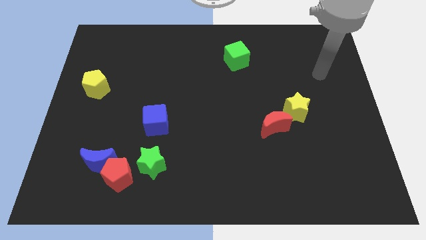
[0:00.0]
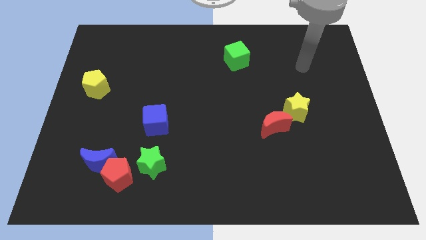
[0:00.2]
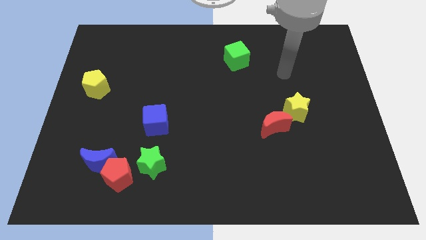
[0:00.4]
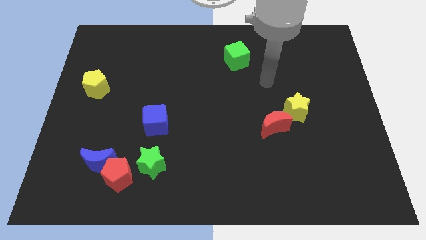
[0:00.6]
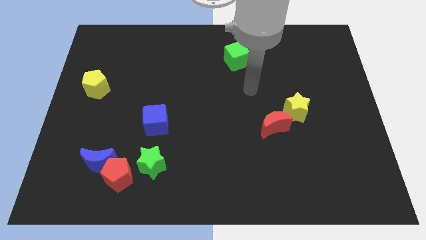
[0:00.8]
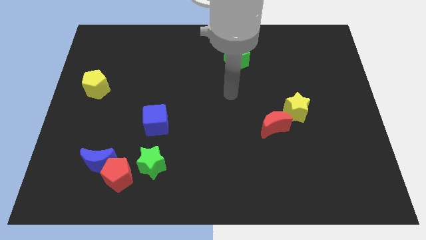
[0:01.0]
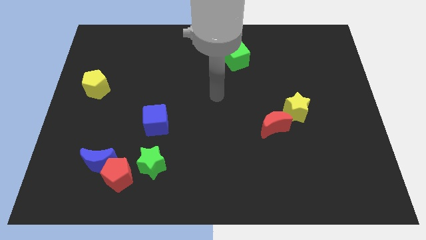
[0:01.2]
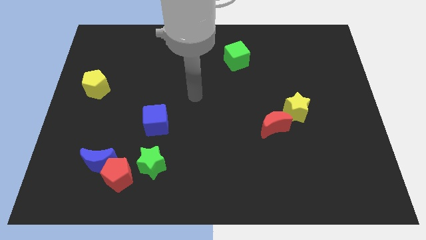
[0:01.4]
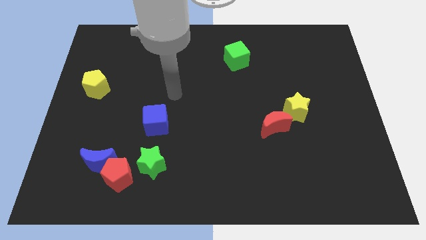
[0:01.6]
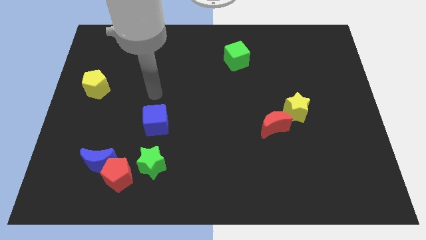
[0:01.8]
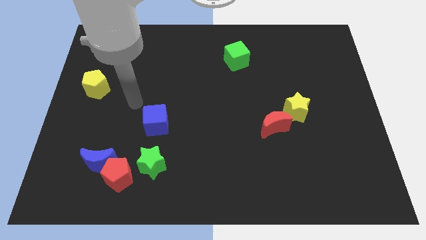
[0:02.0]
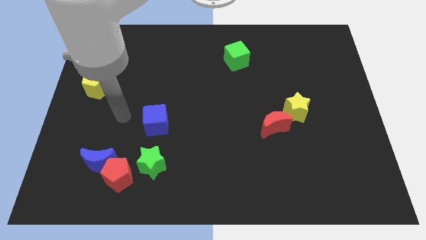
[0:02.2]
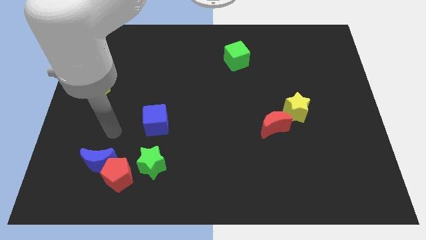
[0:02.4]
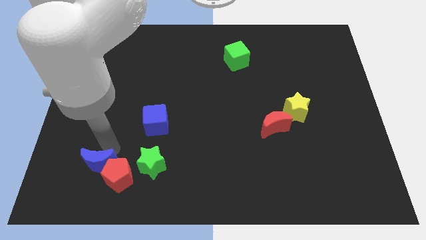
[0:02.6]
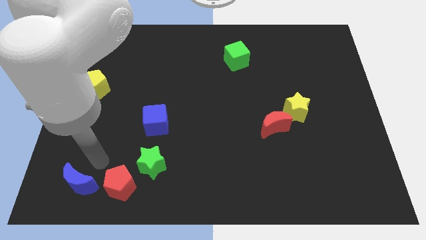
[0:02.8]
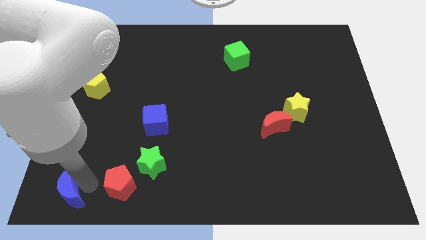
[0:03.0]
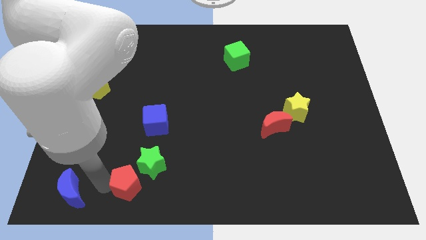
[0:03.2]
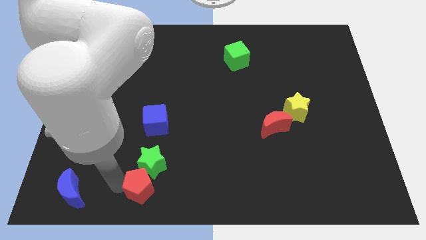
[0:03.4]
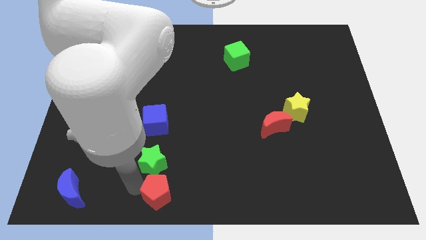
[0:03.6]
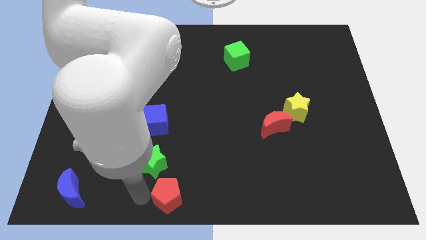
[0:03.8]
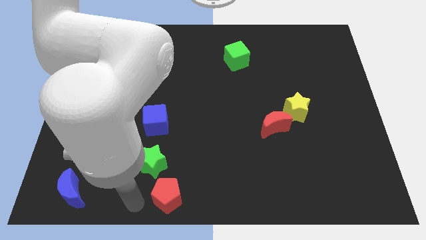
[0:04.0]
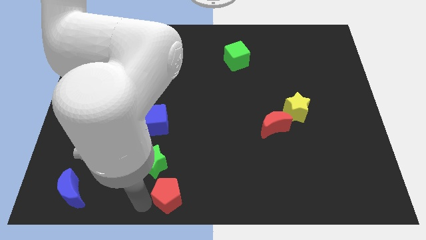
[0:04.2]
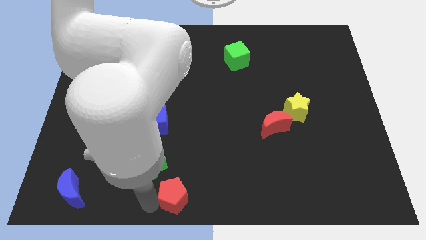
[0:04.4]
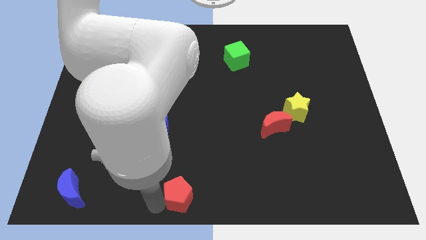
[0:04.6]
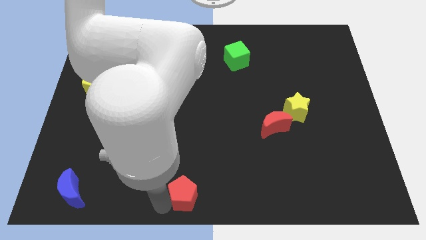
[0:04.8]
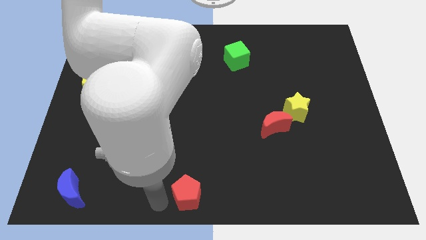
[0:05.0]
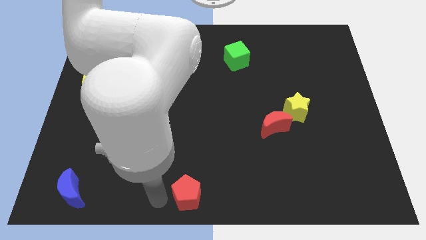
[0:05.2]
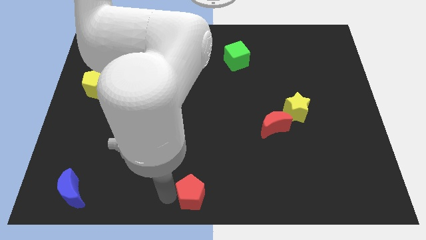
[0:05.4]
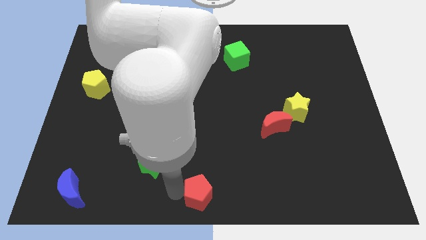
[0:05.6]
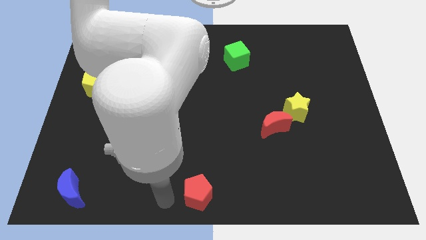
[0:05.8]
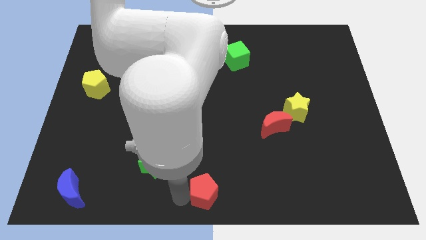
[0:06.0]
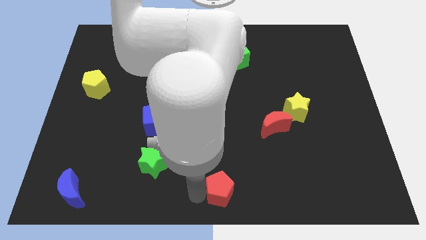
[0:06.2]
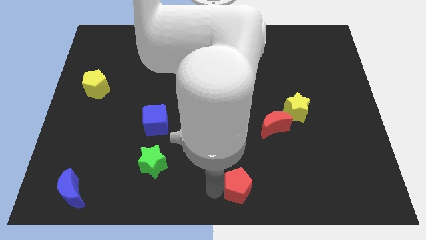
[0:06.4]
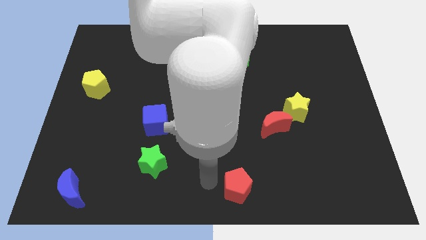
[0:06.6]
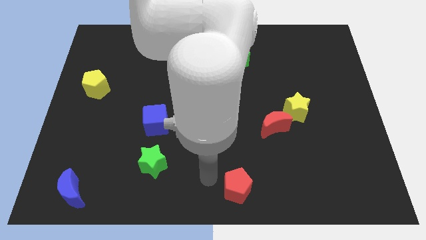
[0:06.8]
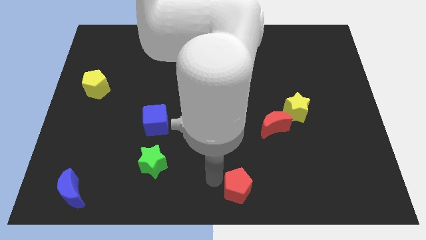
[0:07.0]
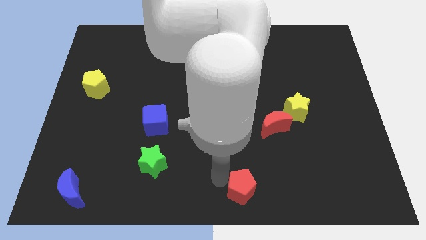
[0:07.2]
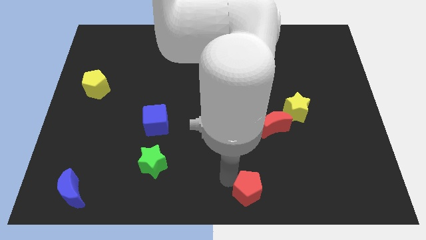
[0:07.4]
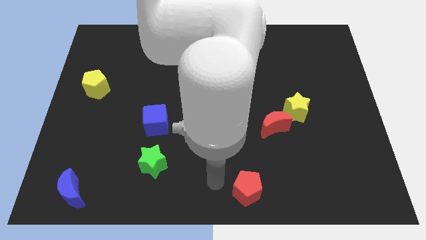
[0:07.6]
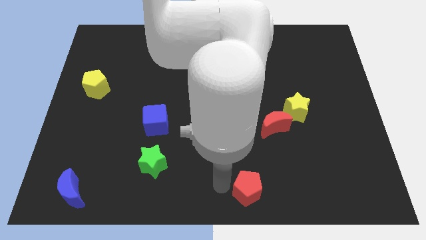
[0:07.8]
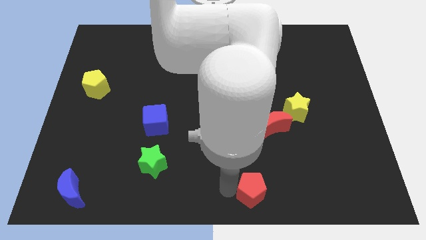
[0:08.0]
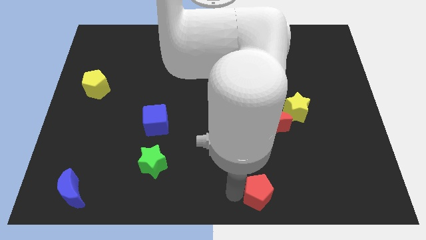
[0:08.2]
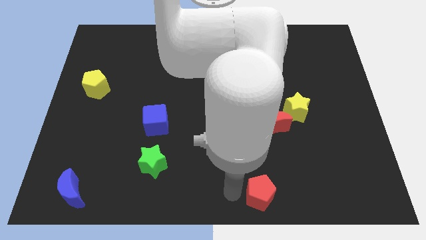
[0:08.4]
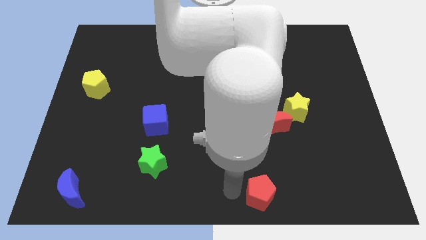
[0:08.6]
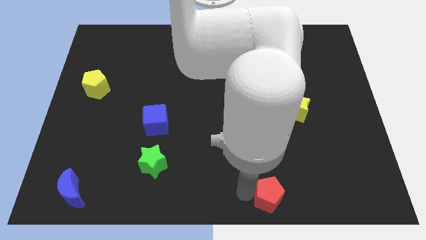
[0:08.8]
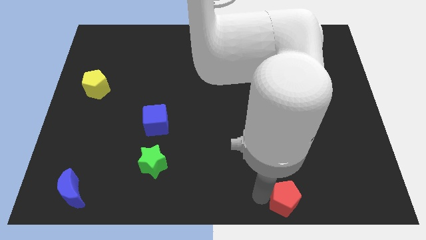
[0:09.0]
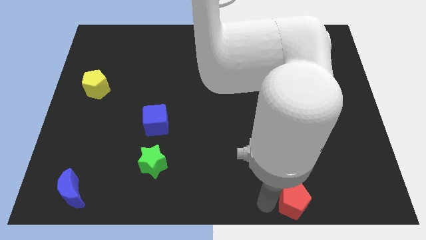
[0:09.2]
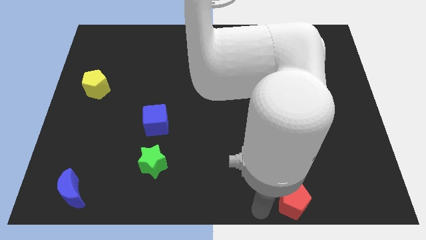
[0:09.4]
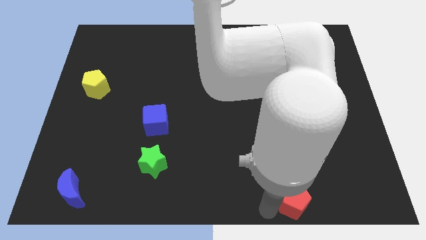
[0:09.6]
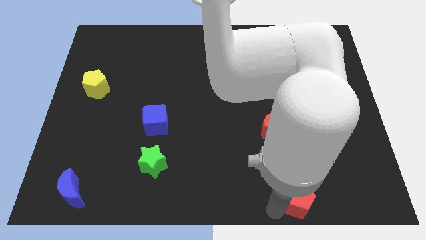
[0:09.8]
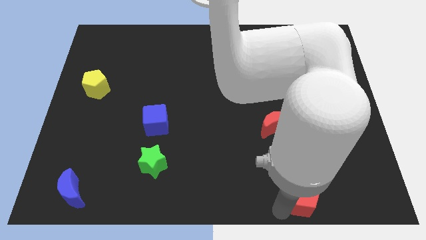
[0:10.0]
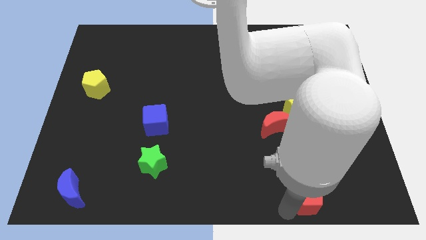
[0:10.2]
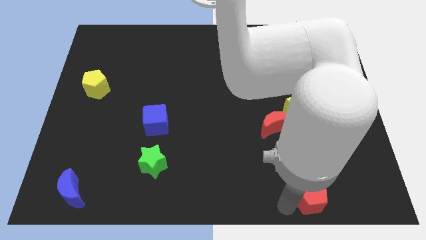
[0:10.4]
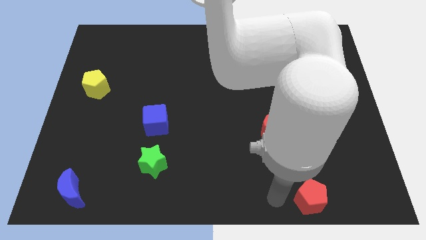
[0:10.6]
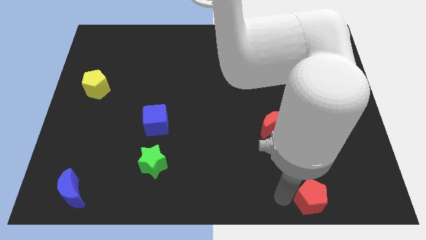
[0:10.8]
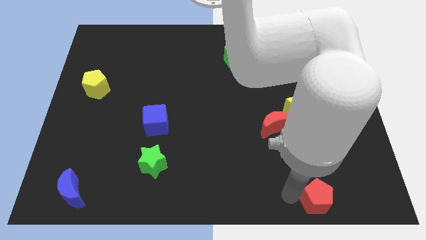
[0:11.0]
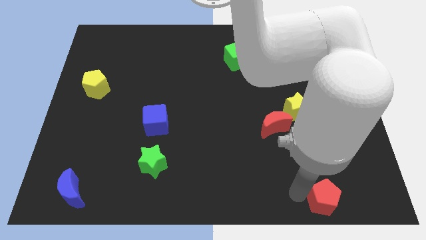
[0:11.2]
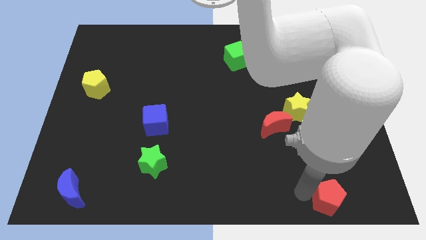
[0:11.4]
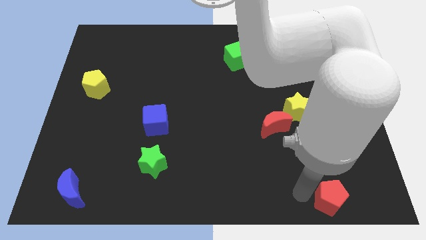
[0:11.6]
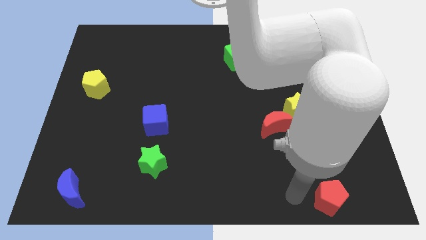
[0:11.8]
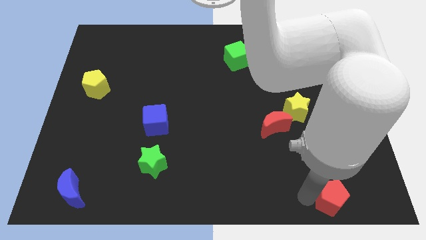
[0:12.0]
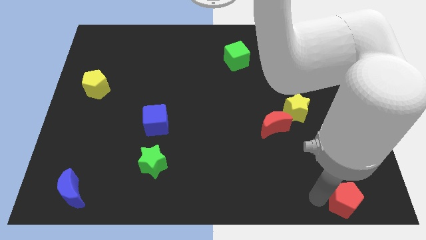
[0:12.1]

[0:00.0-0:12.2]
put the red pentagon to the bottom right corner

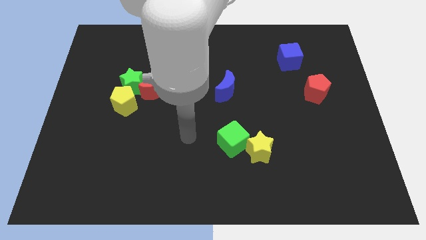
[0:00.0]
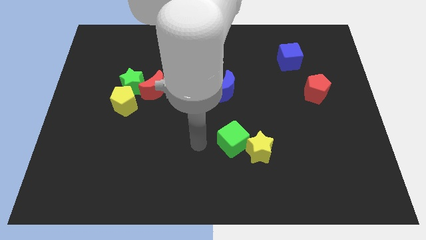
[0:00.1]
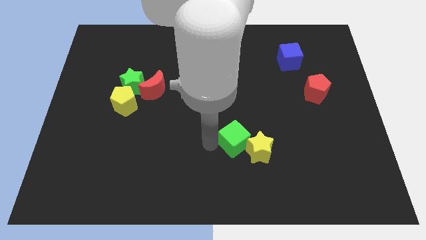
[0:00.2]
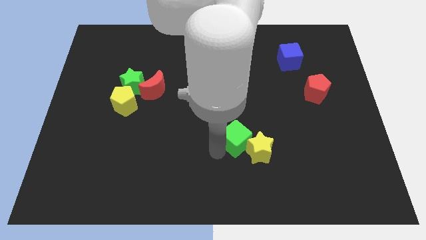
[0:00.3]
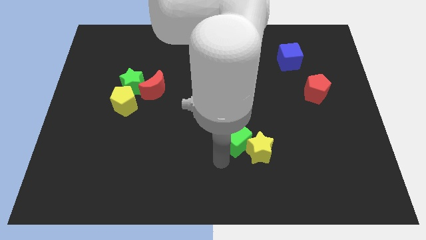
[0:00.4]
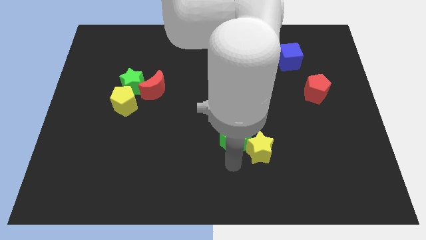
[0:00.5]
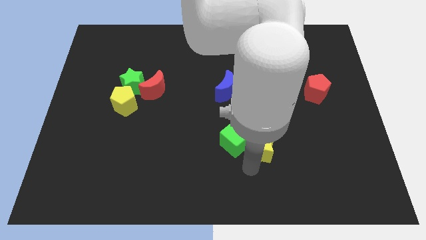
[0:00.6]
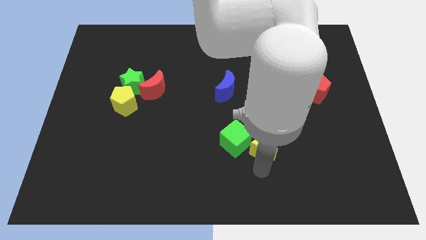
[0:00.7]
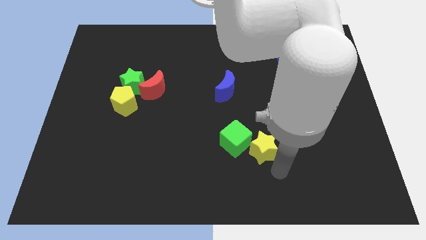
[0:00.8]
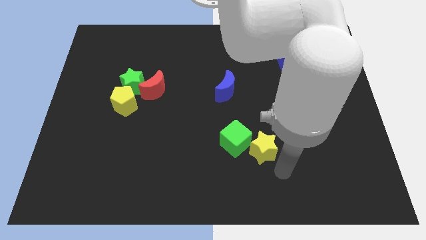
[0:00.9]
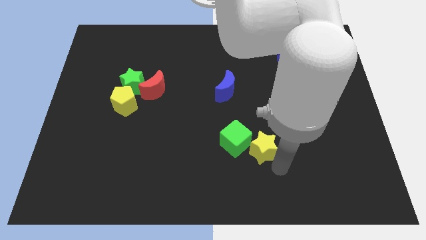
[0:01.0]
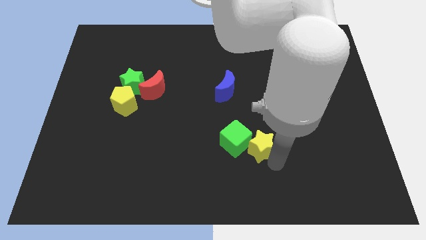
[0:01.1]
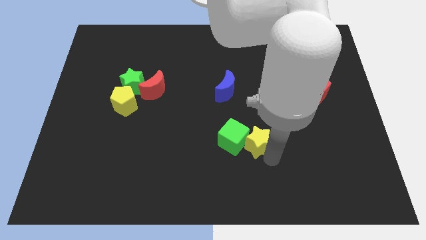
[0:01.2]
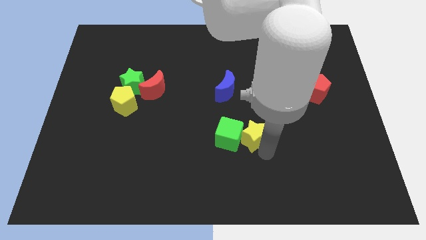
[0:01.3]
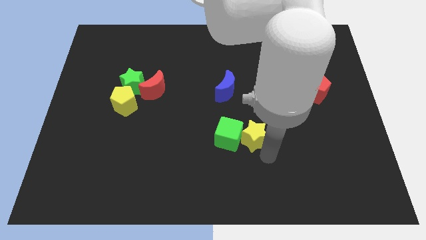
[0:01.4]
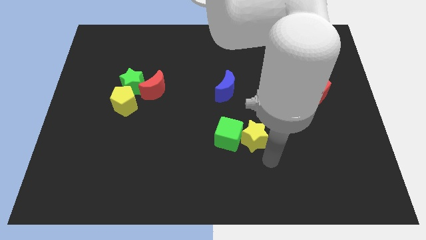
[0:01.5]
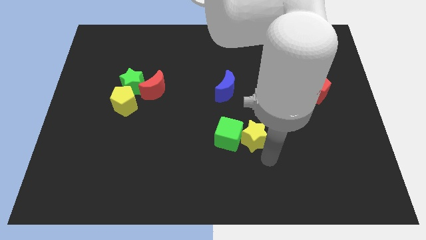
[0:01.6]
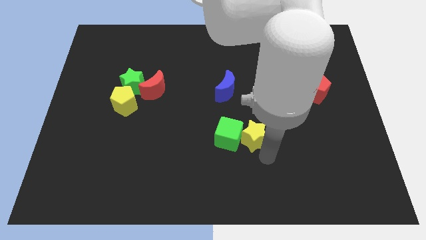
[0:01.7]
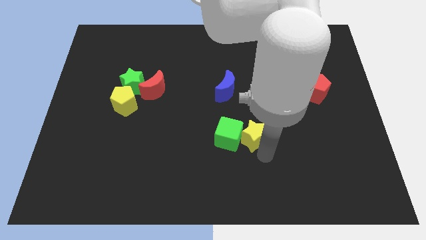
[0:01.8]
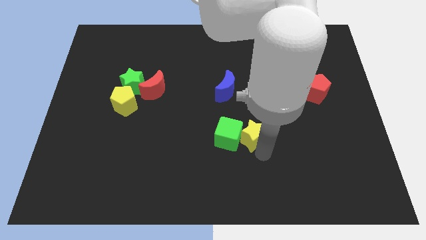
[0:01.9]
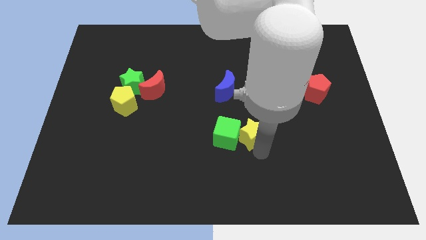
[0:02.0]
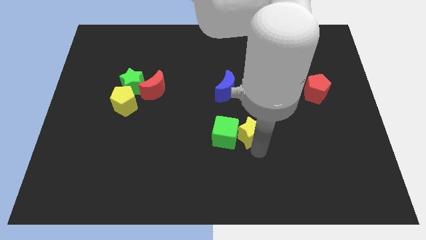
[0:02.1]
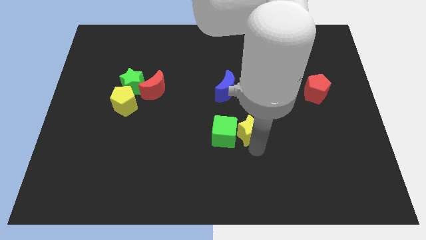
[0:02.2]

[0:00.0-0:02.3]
slide the yellow star to the center
